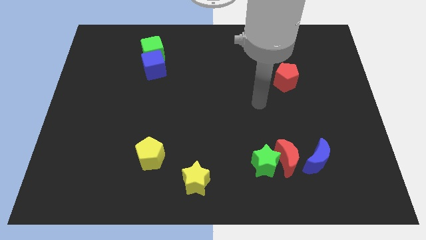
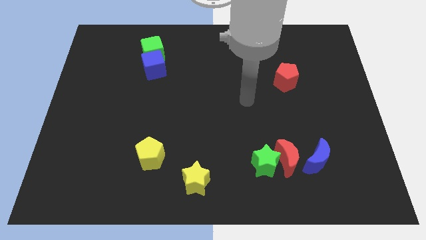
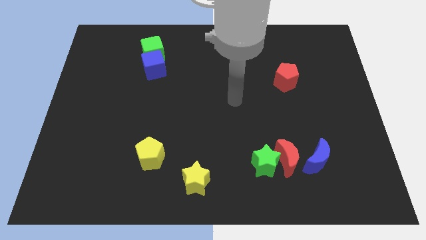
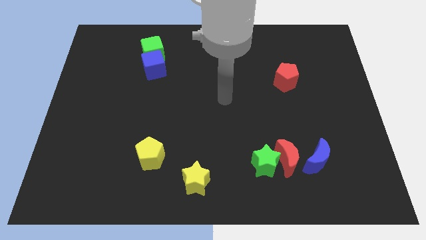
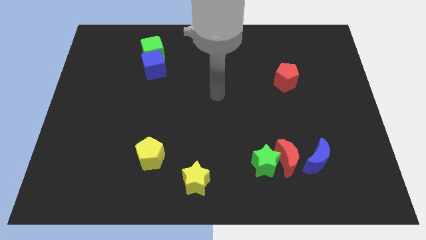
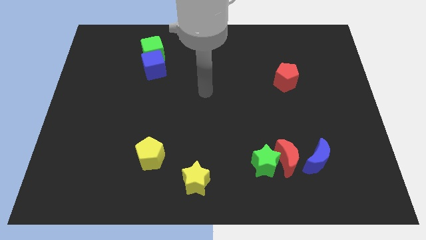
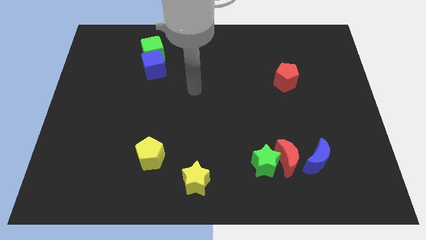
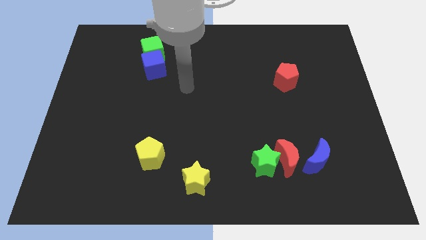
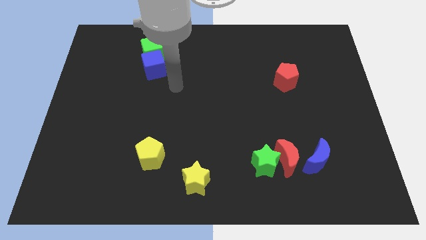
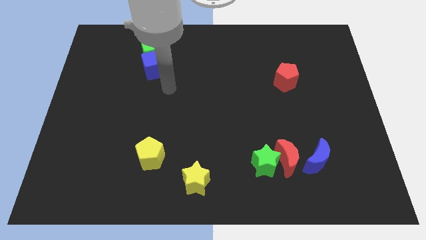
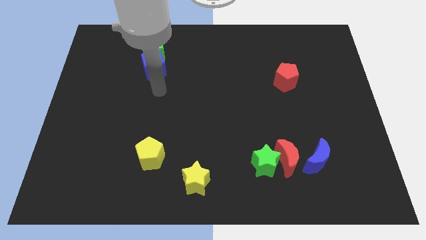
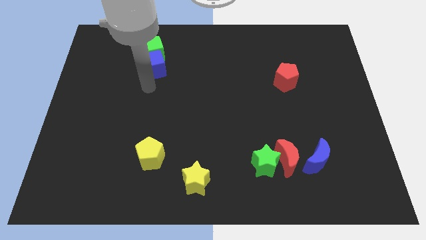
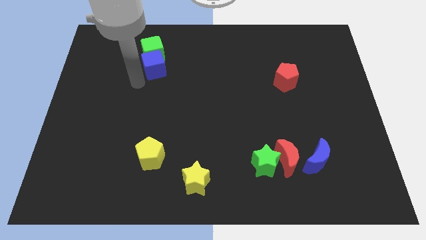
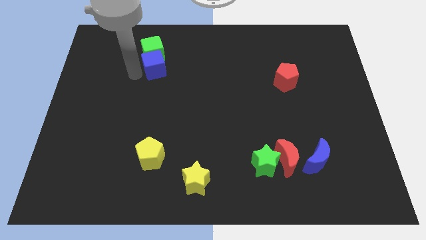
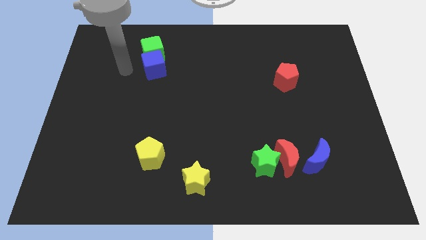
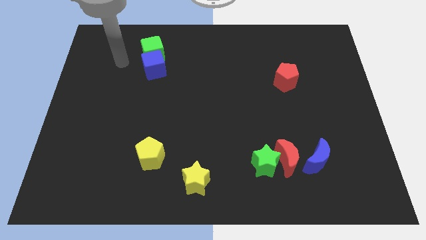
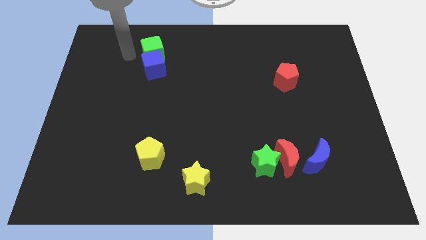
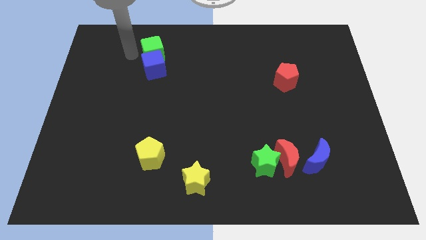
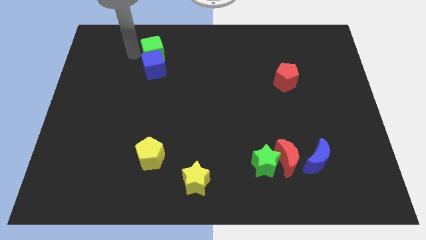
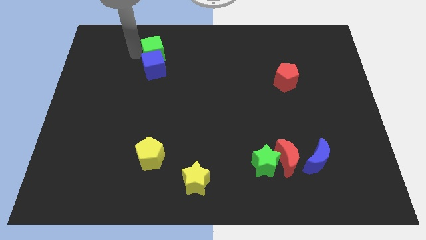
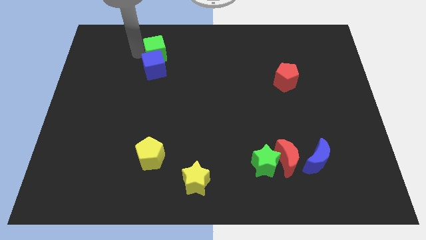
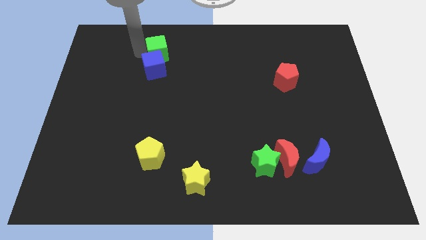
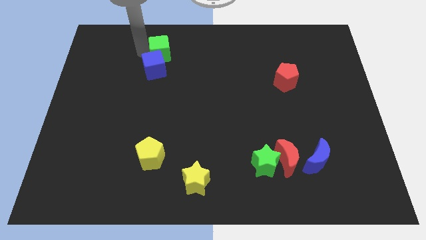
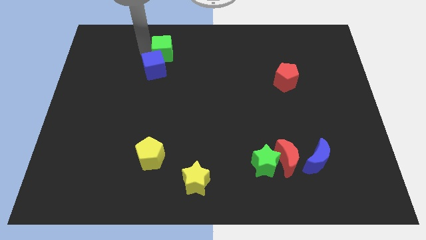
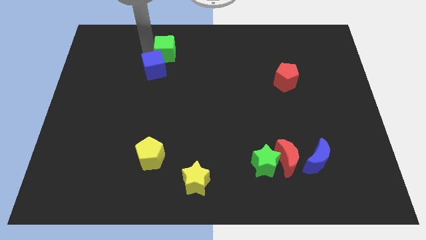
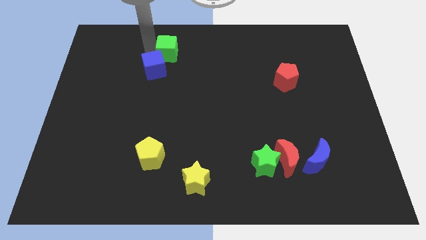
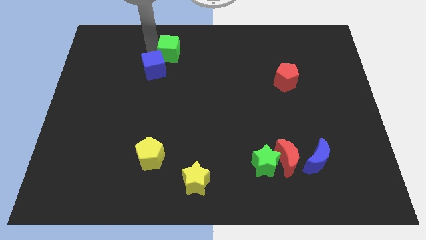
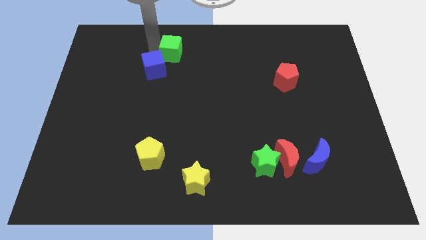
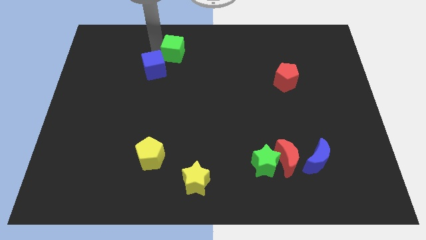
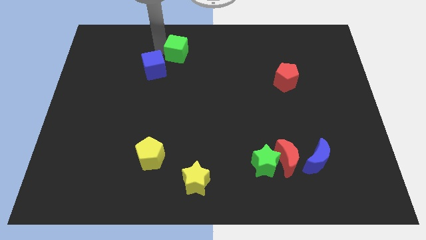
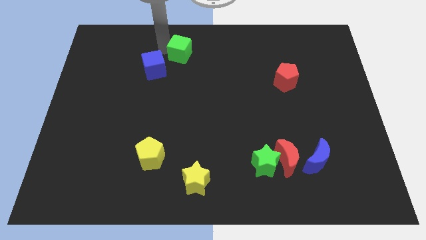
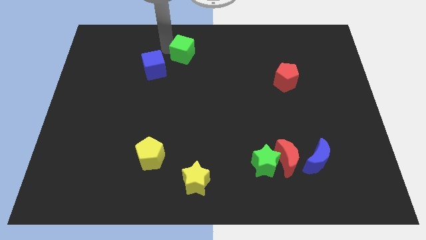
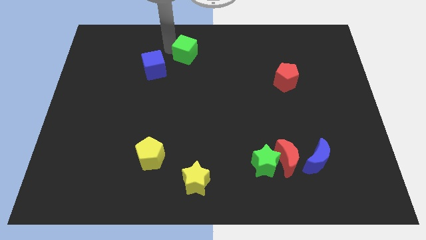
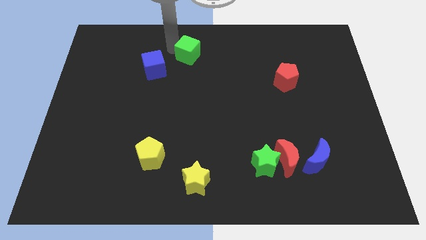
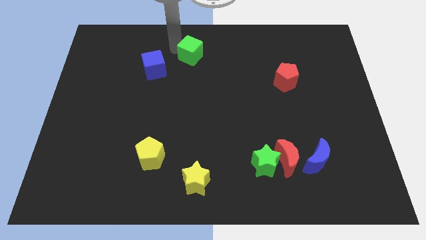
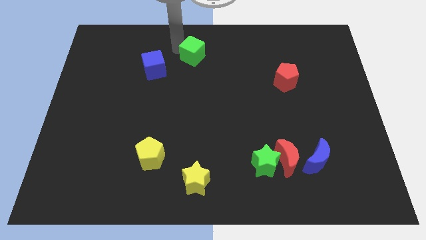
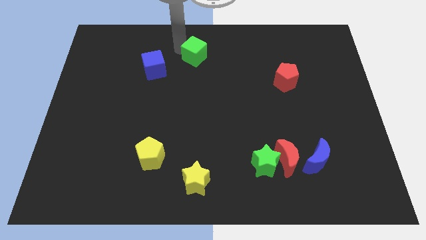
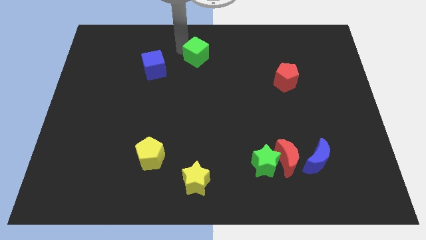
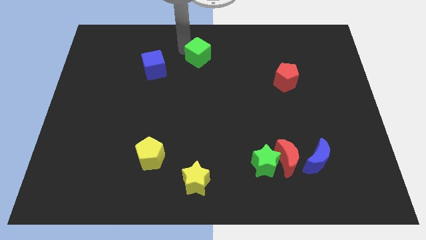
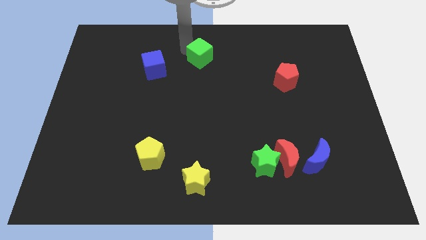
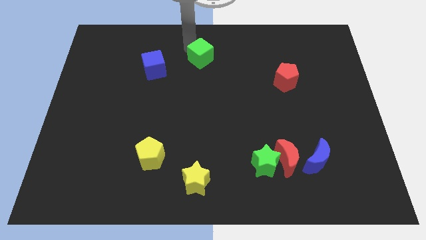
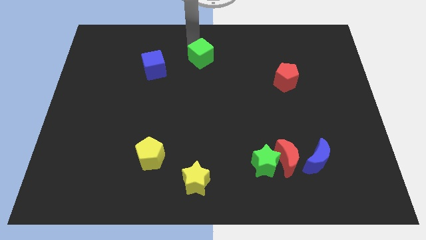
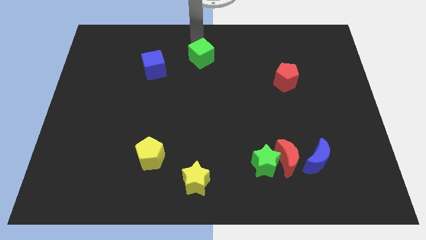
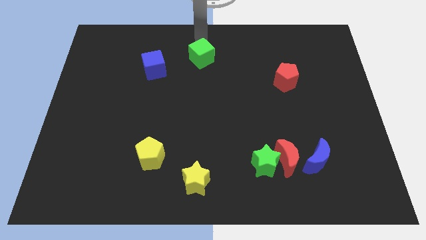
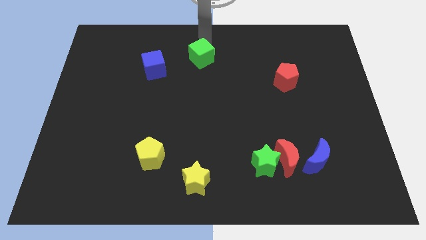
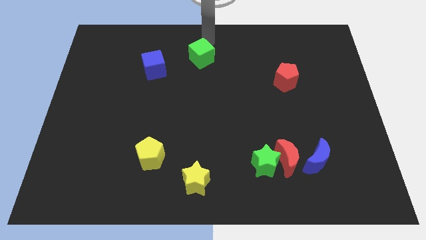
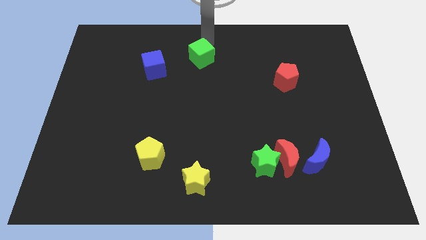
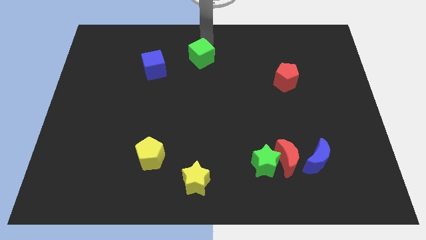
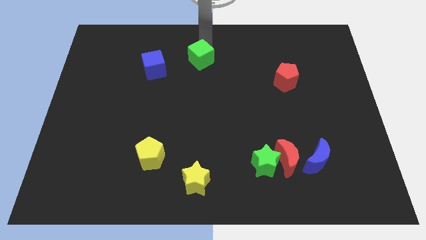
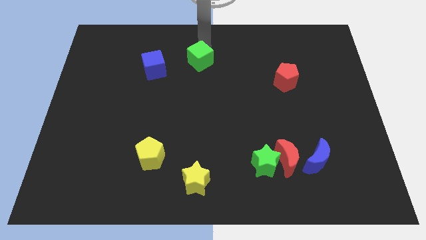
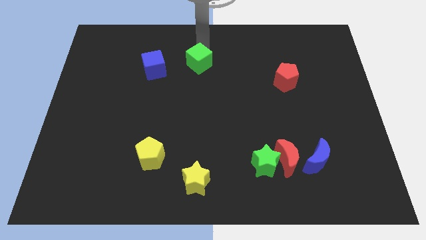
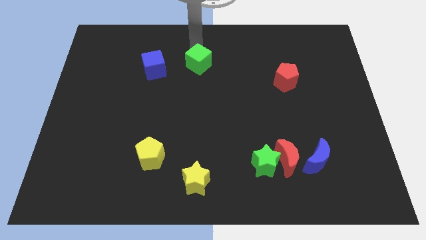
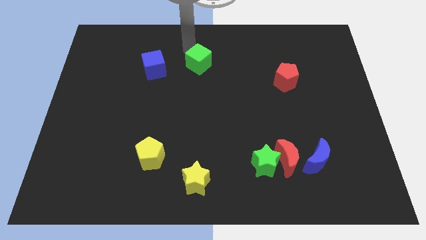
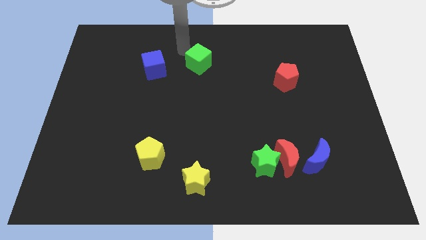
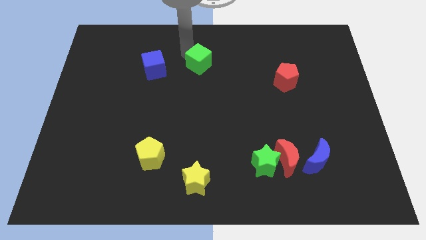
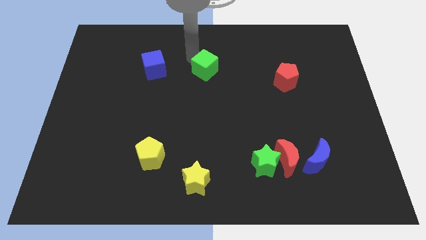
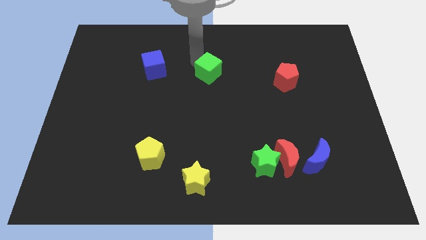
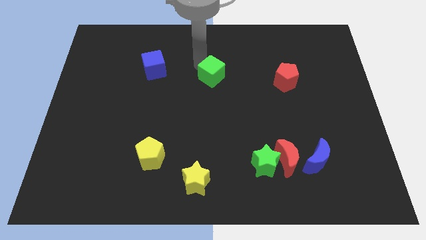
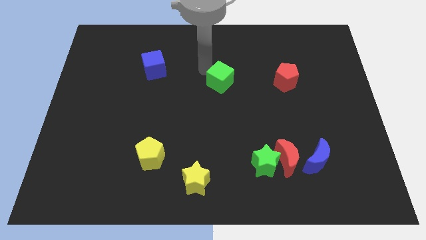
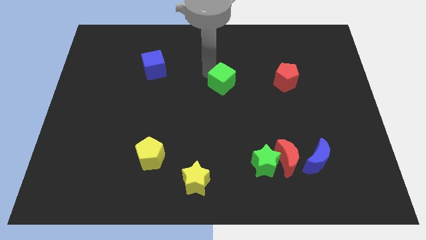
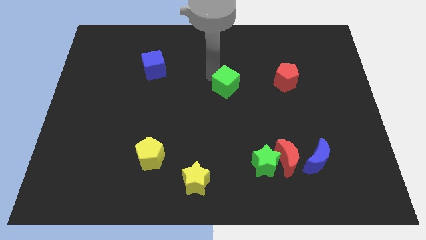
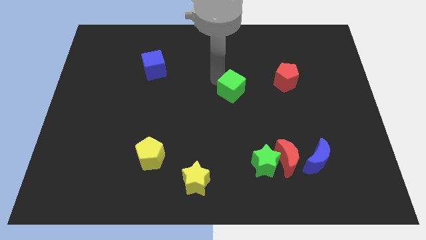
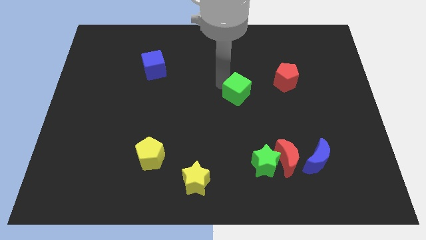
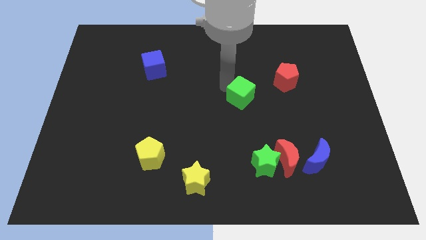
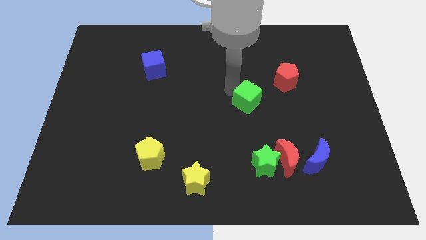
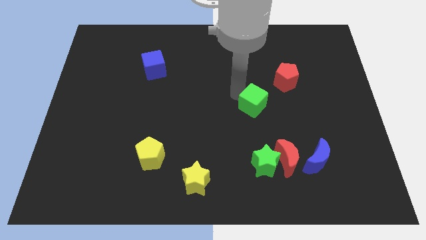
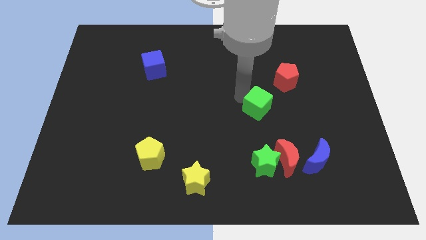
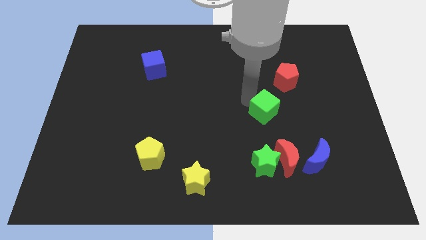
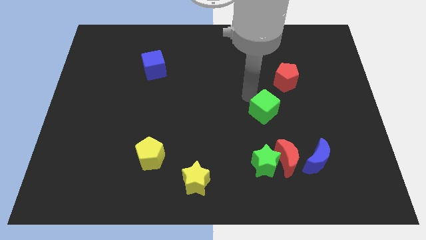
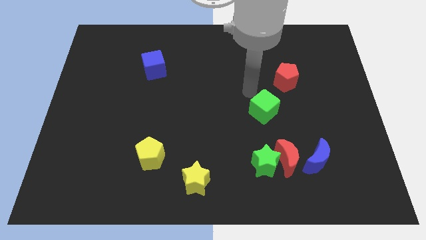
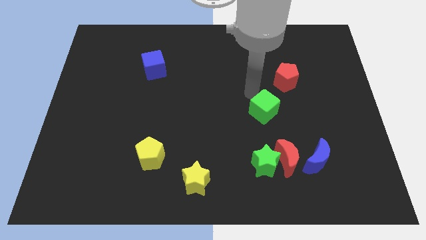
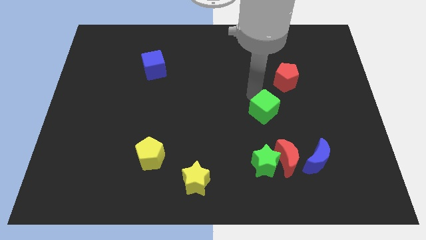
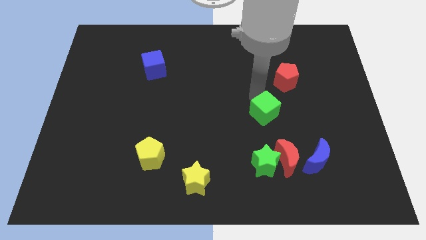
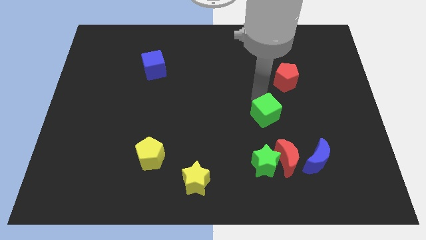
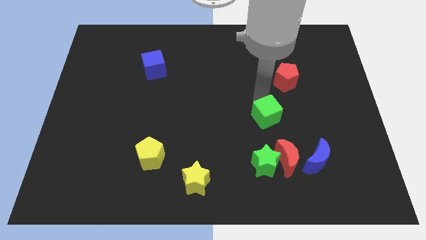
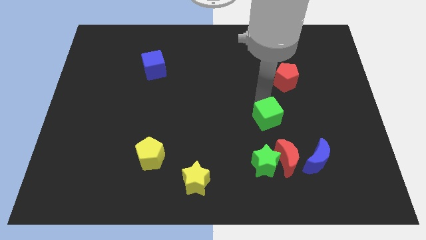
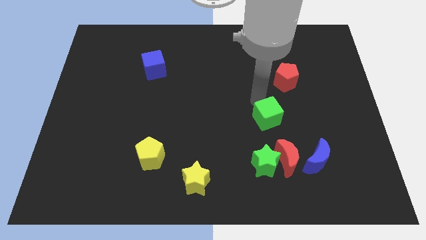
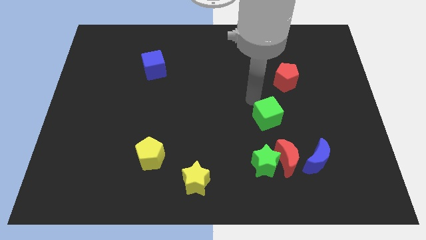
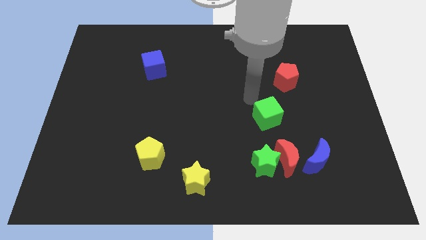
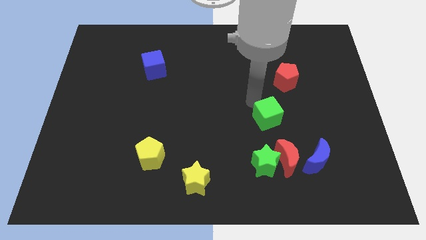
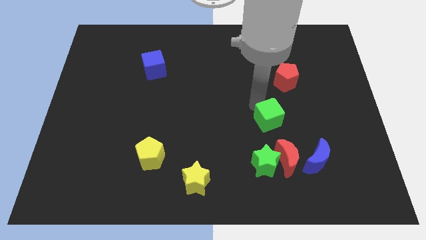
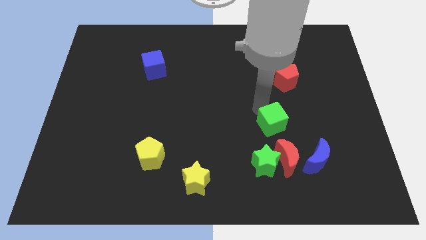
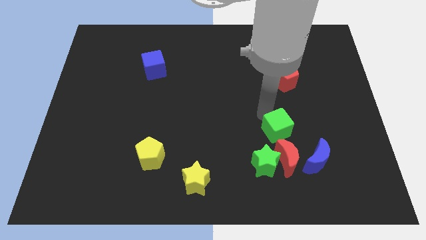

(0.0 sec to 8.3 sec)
put the green cube diagonally up and to the left of the blue moon
